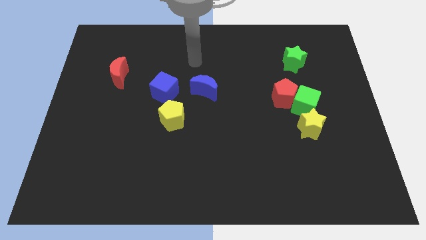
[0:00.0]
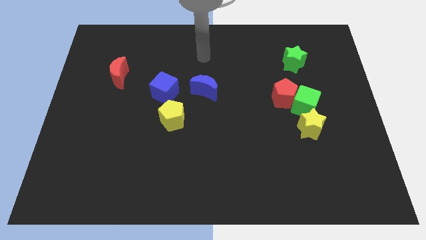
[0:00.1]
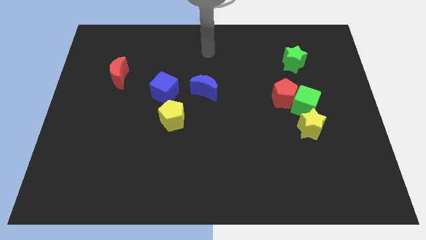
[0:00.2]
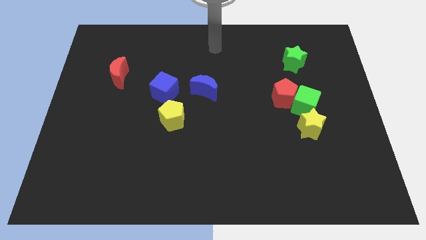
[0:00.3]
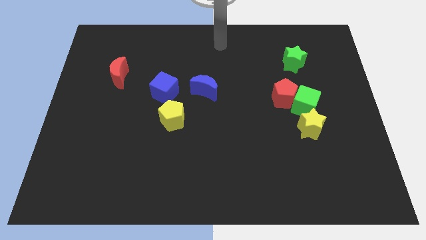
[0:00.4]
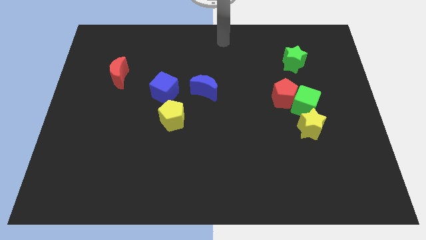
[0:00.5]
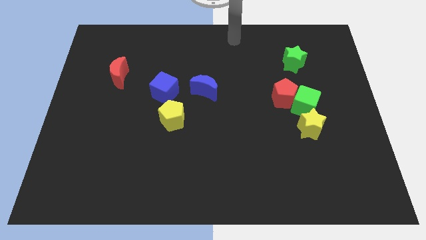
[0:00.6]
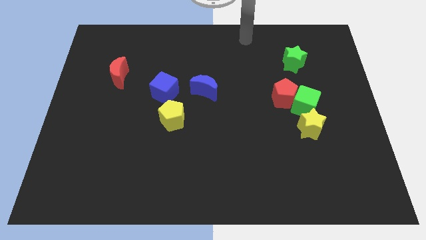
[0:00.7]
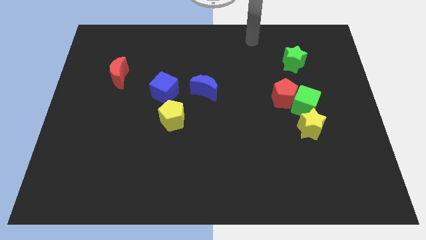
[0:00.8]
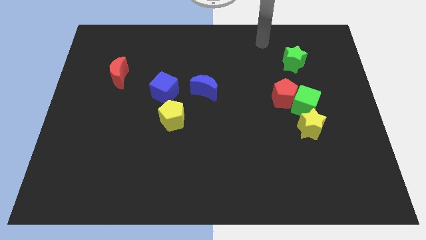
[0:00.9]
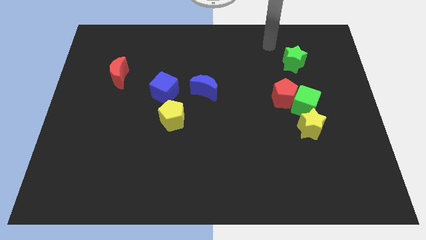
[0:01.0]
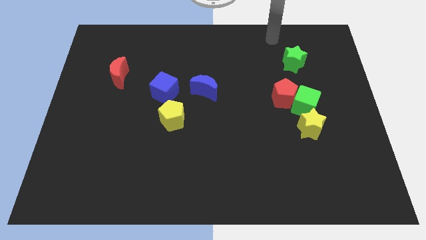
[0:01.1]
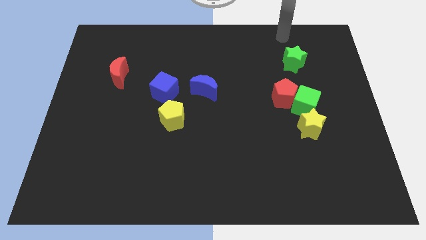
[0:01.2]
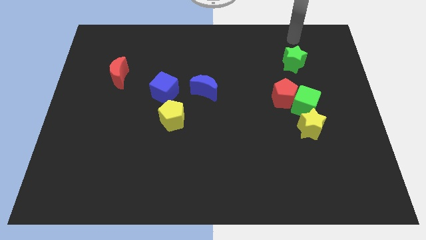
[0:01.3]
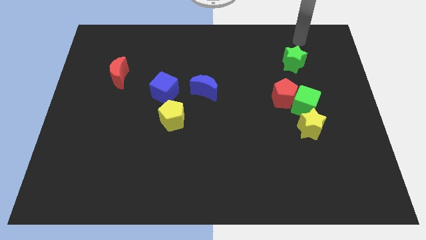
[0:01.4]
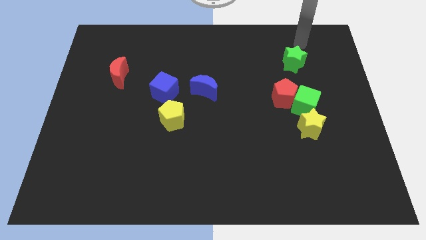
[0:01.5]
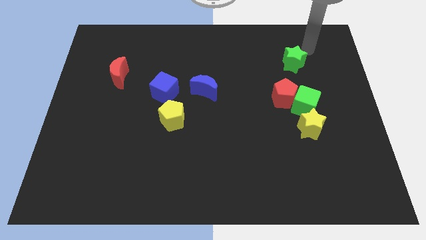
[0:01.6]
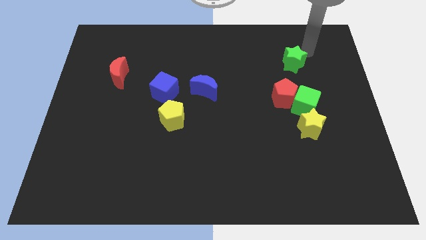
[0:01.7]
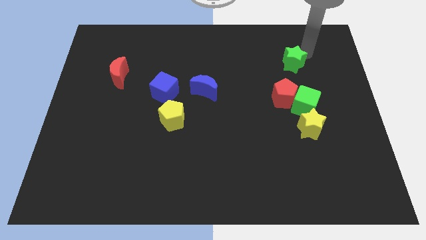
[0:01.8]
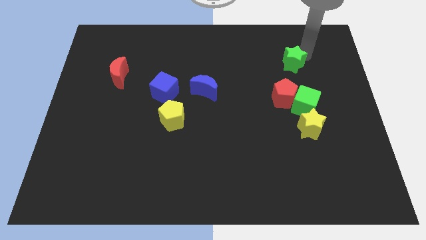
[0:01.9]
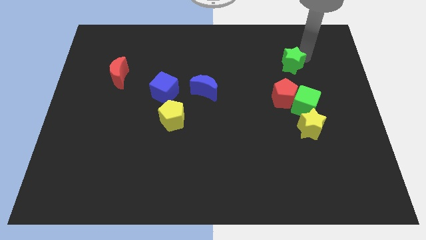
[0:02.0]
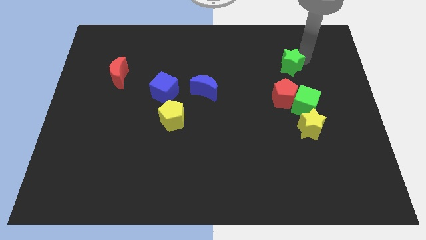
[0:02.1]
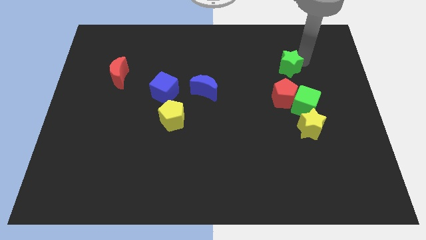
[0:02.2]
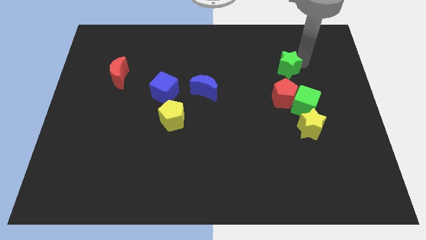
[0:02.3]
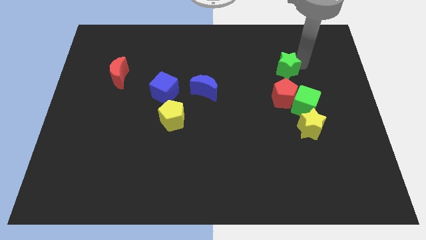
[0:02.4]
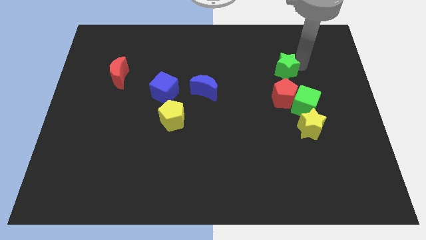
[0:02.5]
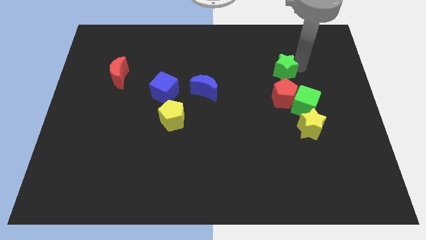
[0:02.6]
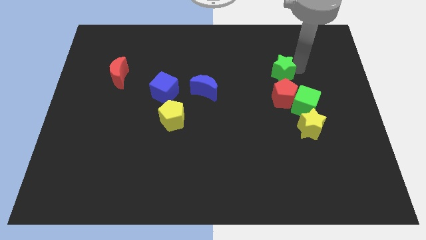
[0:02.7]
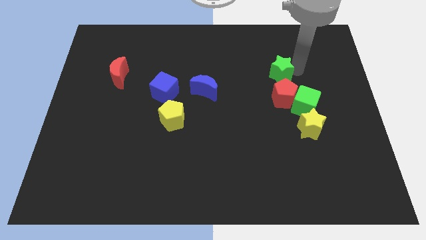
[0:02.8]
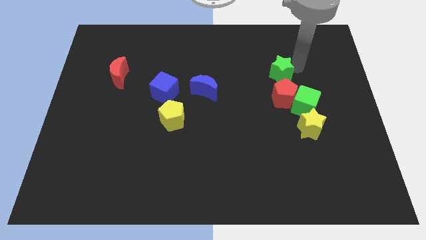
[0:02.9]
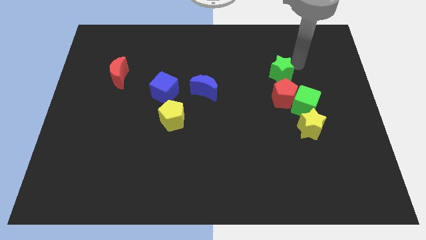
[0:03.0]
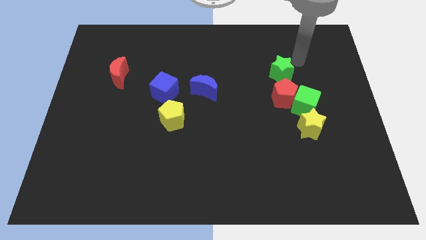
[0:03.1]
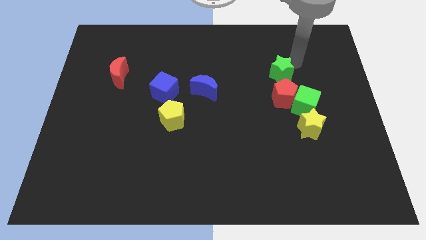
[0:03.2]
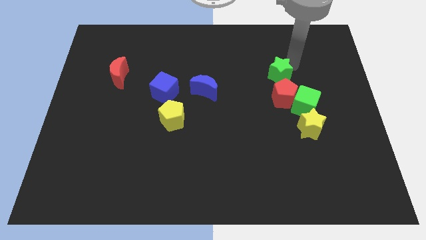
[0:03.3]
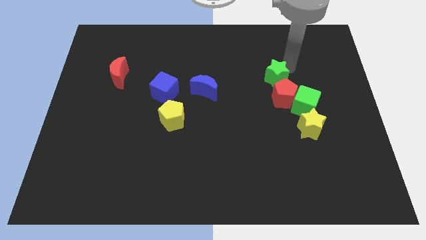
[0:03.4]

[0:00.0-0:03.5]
slide the green star slightly downwards and left diagonally

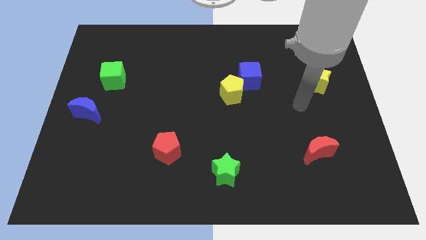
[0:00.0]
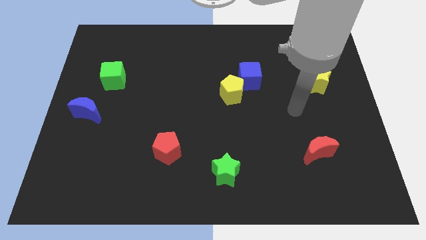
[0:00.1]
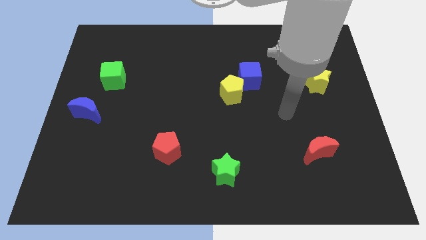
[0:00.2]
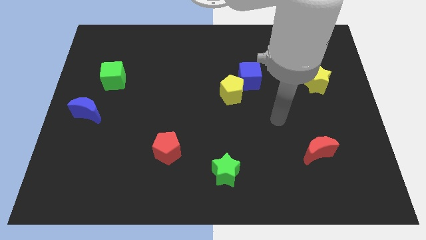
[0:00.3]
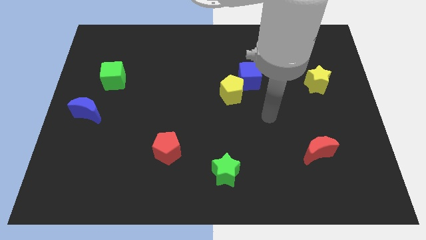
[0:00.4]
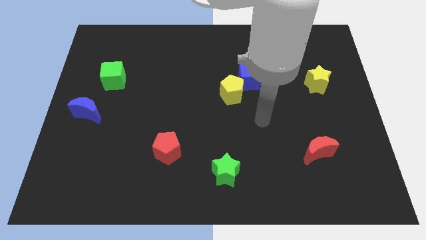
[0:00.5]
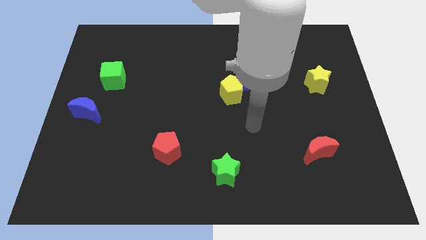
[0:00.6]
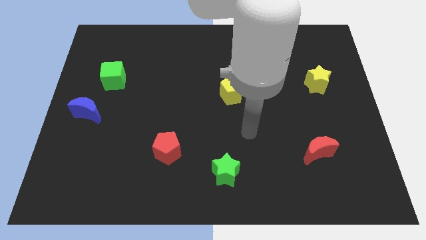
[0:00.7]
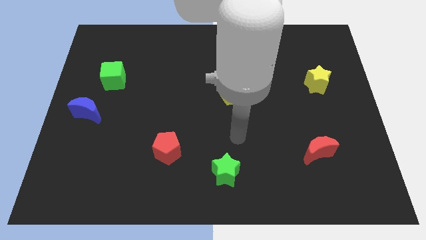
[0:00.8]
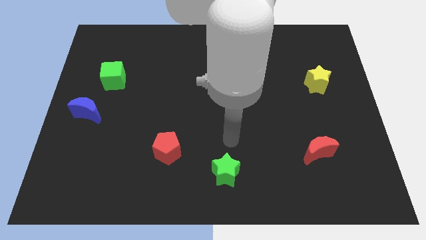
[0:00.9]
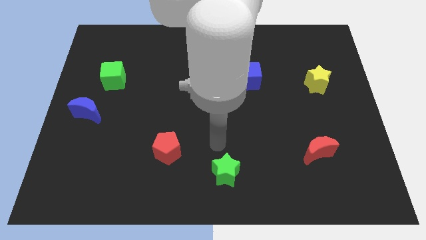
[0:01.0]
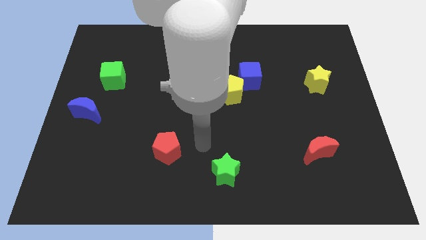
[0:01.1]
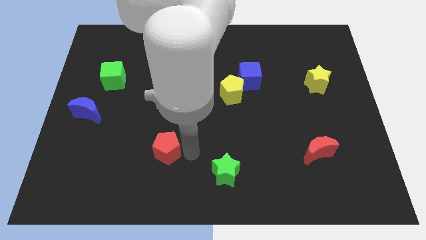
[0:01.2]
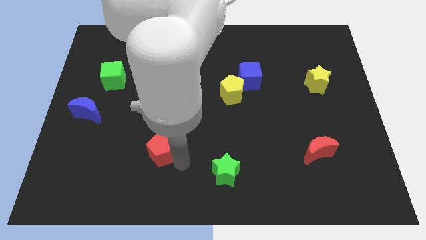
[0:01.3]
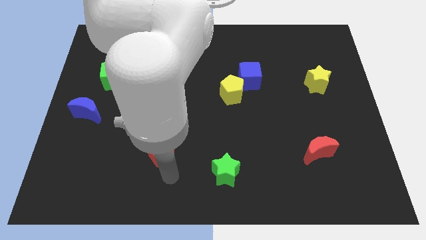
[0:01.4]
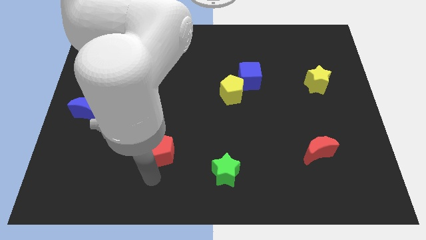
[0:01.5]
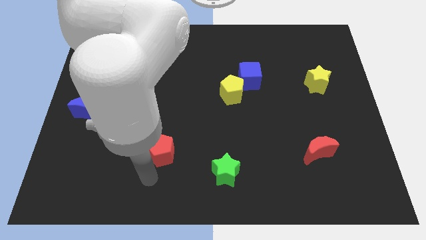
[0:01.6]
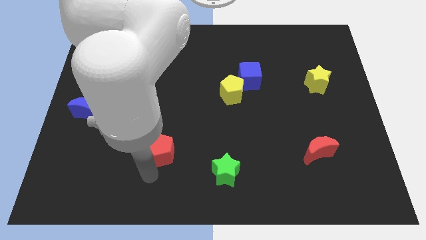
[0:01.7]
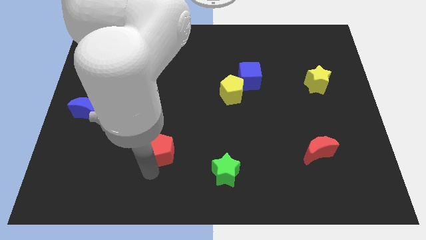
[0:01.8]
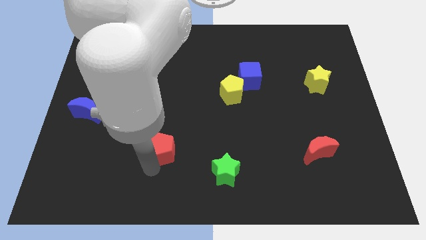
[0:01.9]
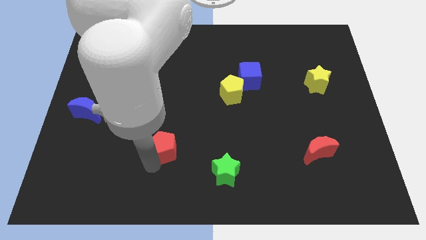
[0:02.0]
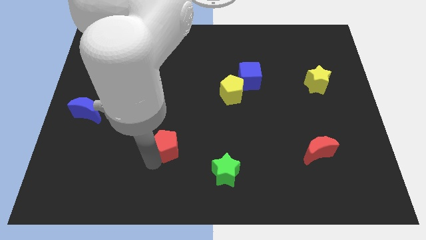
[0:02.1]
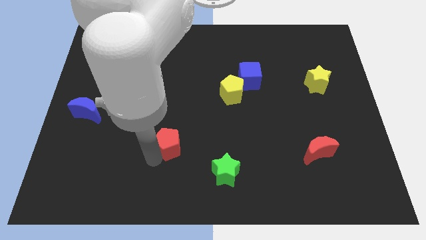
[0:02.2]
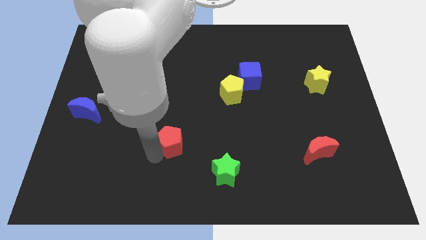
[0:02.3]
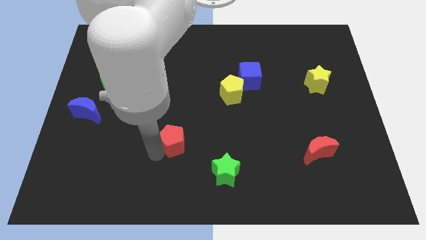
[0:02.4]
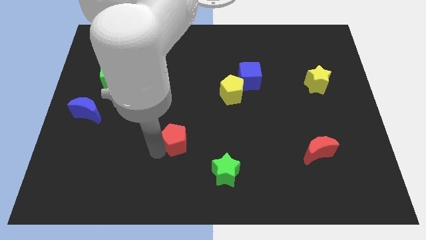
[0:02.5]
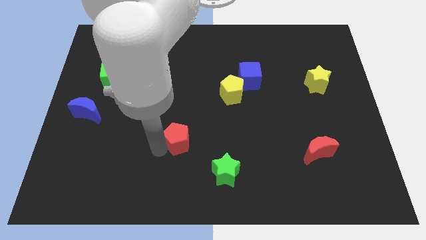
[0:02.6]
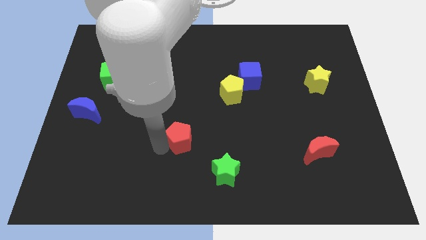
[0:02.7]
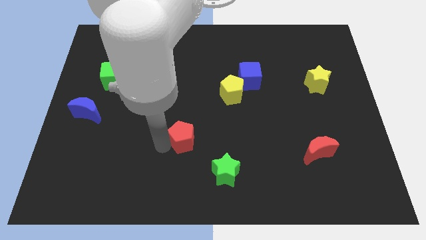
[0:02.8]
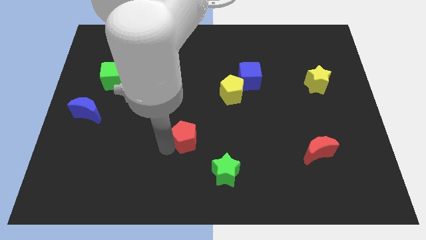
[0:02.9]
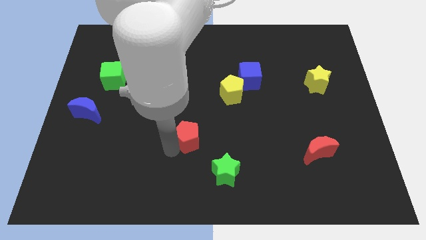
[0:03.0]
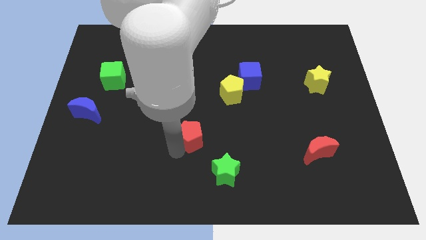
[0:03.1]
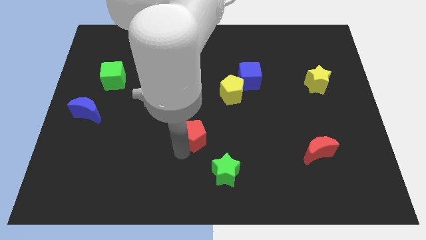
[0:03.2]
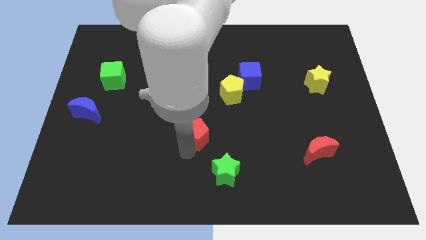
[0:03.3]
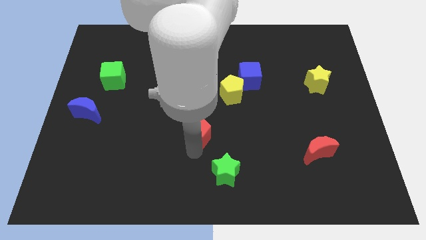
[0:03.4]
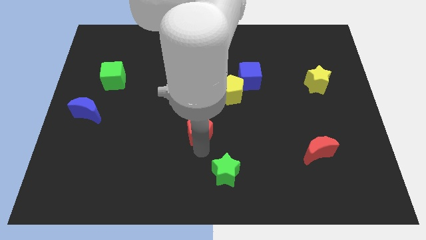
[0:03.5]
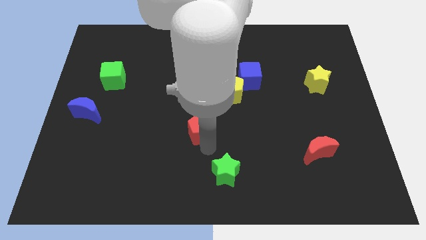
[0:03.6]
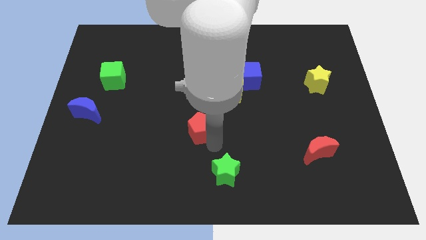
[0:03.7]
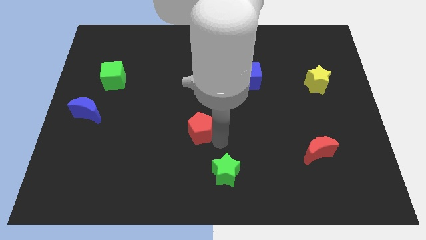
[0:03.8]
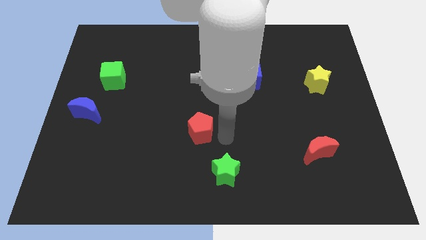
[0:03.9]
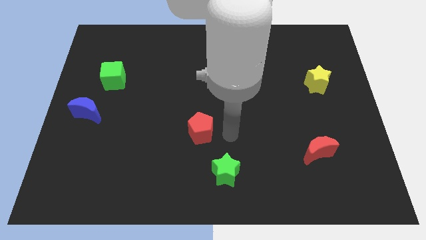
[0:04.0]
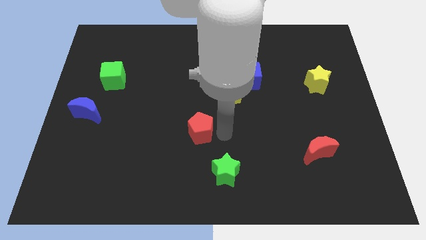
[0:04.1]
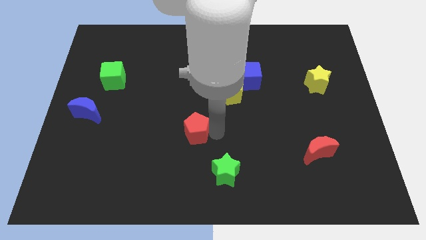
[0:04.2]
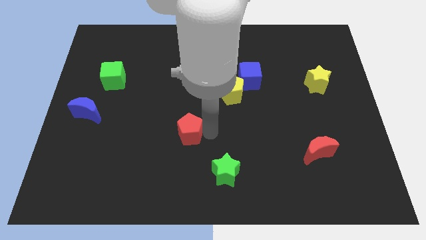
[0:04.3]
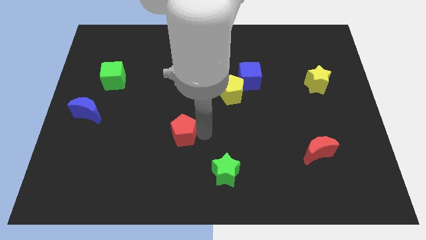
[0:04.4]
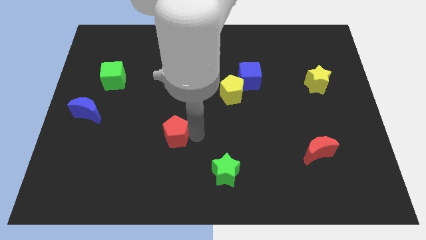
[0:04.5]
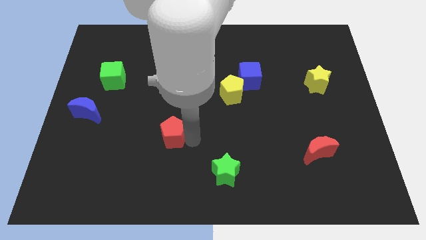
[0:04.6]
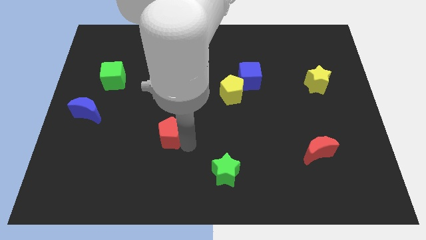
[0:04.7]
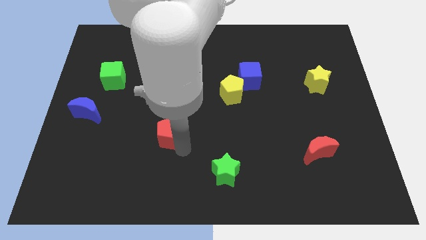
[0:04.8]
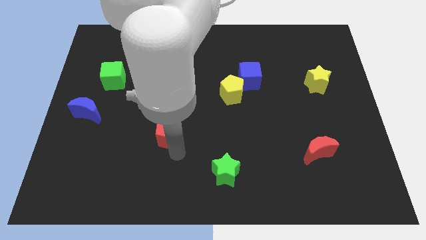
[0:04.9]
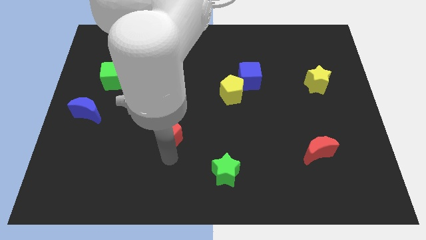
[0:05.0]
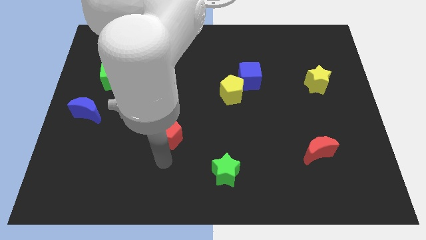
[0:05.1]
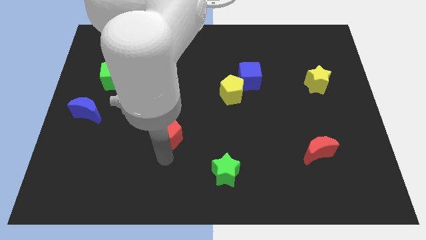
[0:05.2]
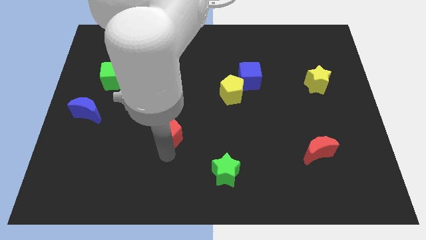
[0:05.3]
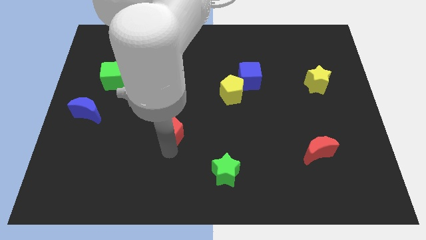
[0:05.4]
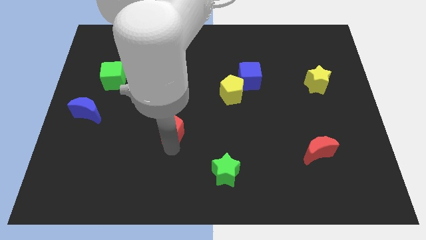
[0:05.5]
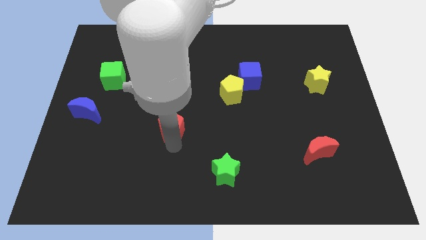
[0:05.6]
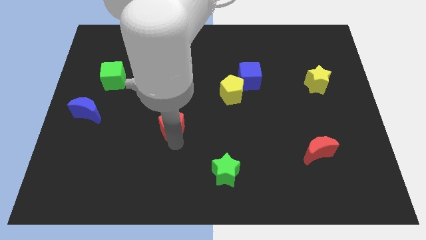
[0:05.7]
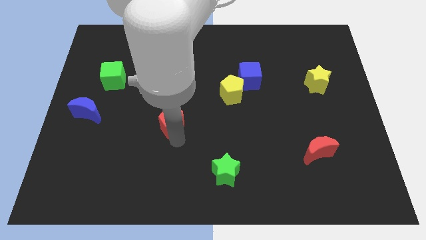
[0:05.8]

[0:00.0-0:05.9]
slide the red pentagon a bit upwards
